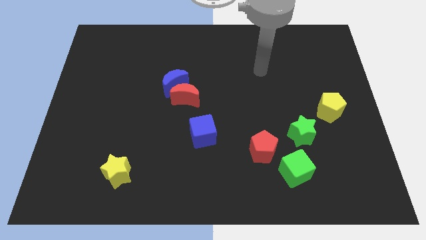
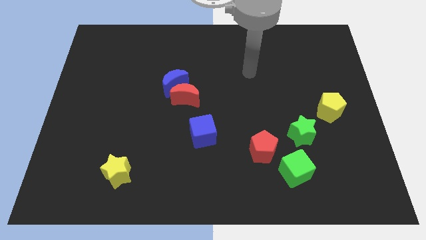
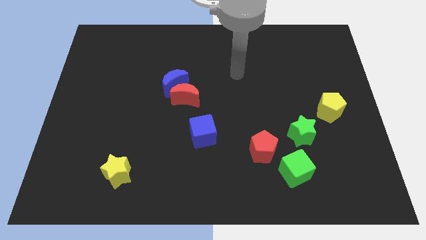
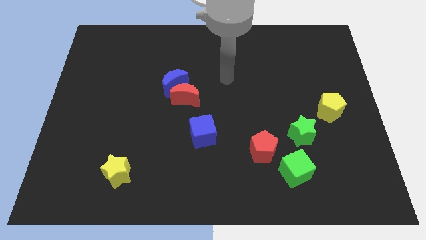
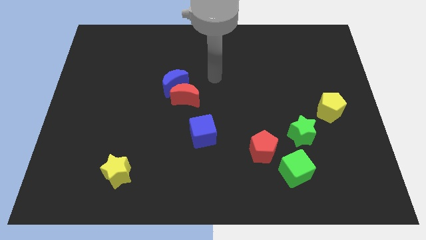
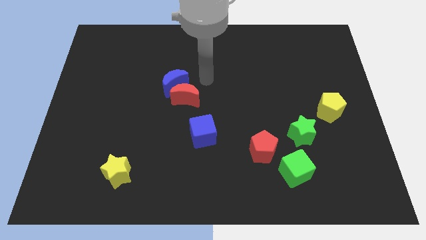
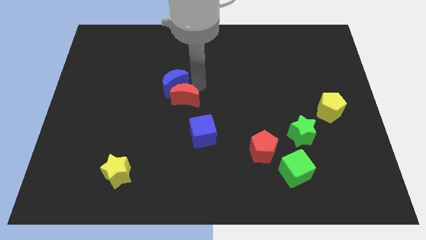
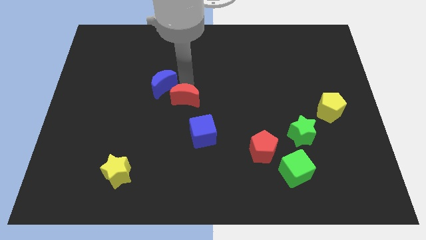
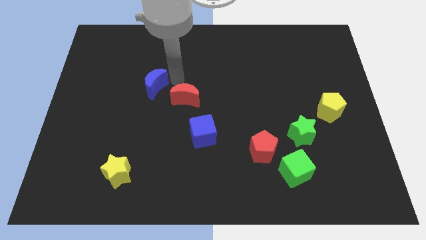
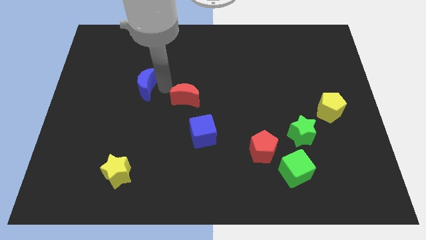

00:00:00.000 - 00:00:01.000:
move the red moon away from the blue moon

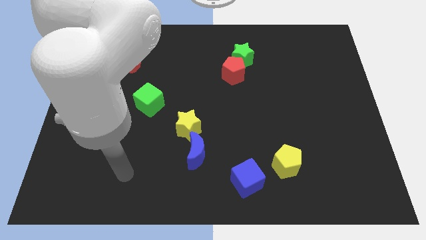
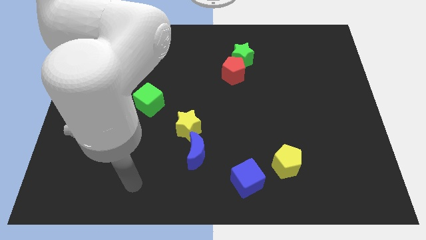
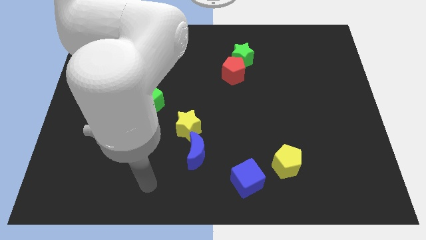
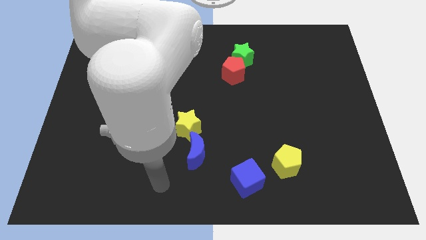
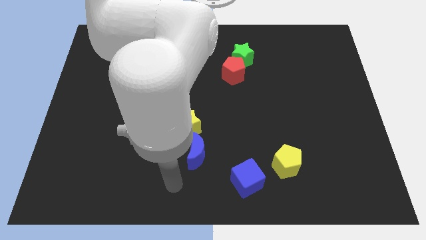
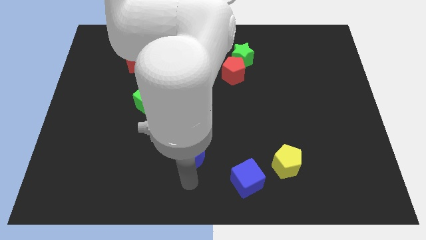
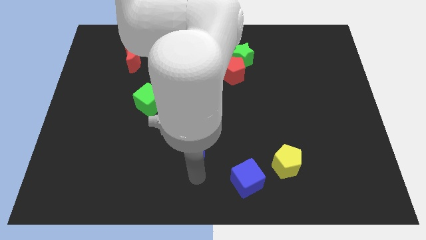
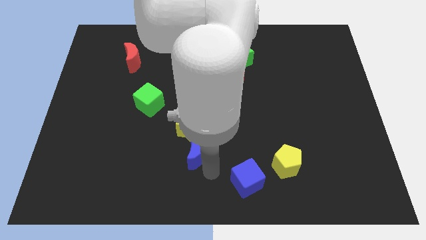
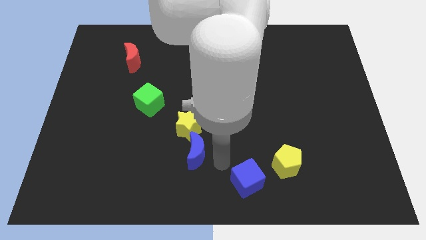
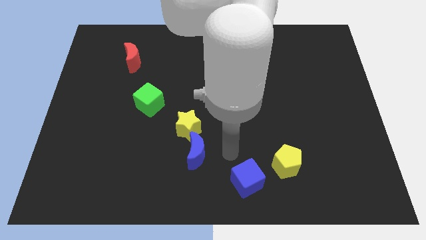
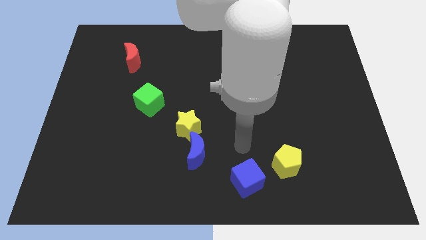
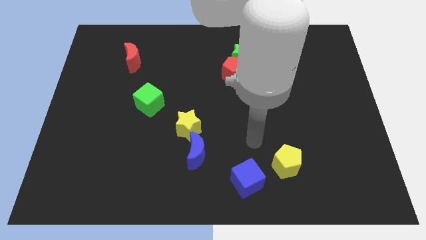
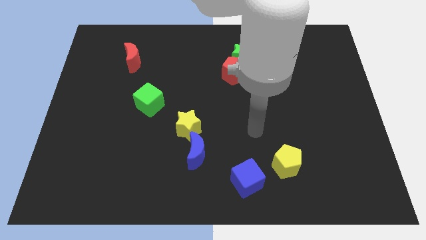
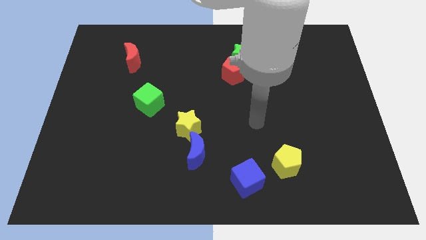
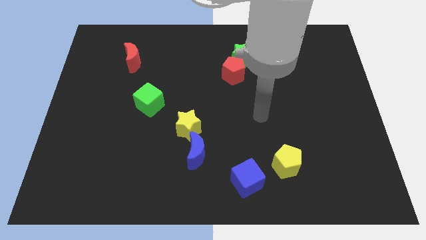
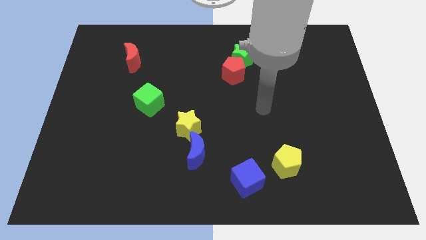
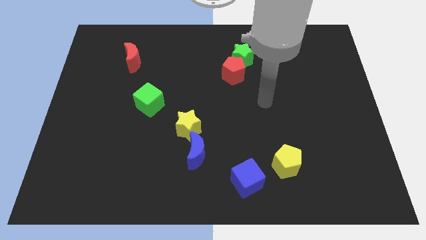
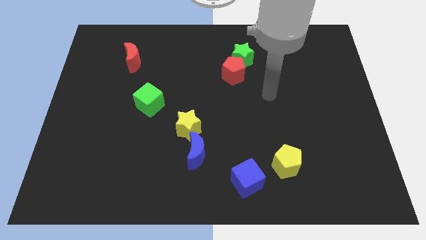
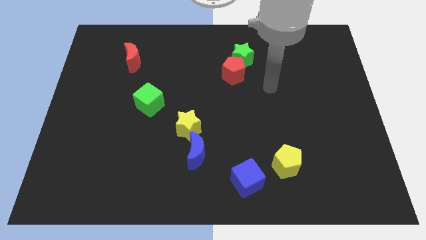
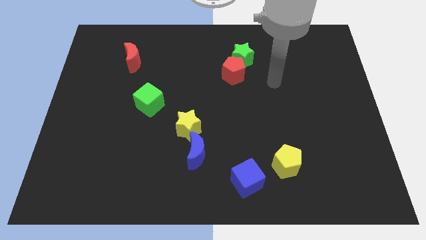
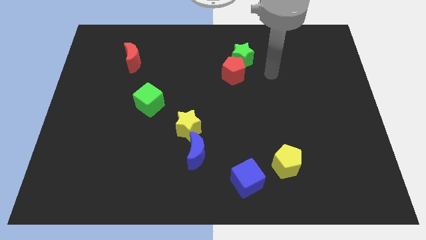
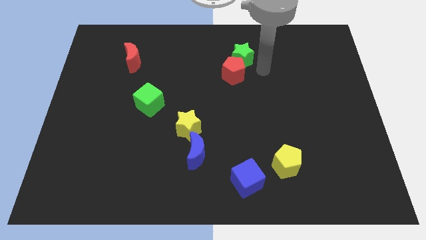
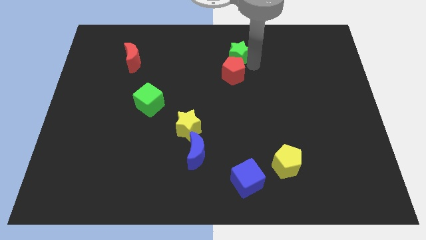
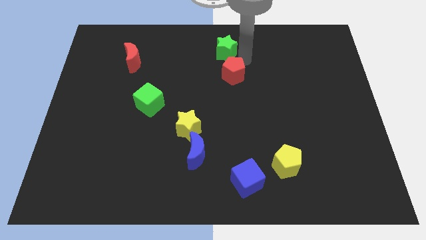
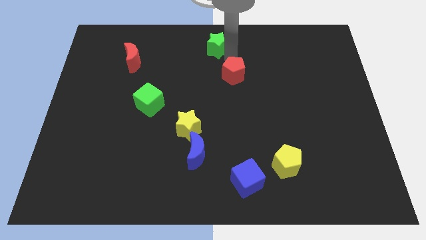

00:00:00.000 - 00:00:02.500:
separate the red pentagon from the green star

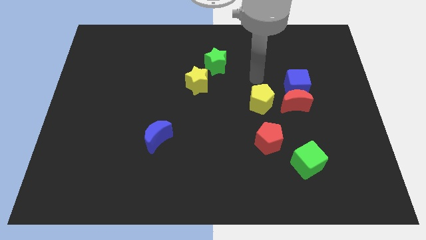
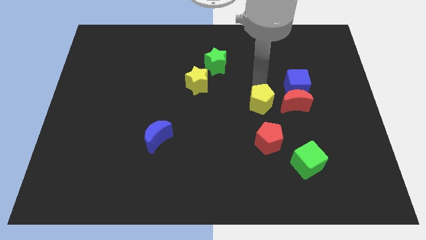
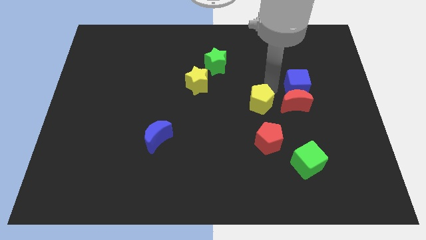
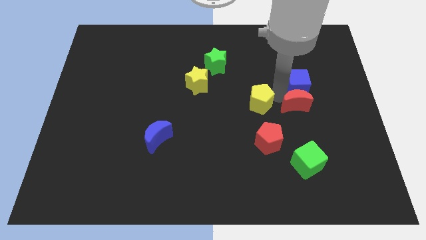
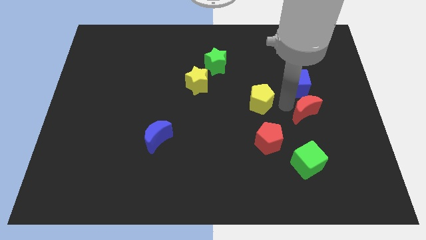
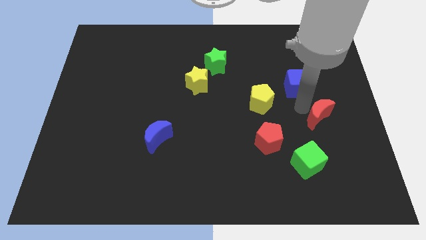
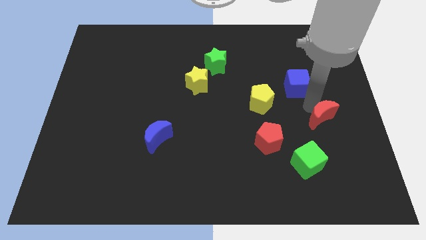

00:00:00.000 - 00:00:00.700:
move the blue cube away from the red moon

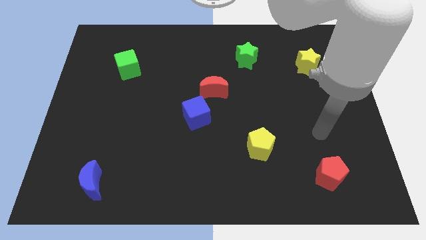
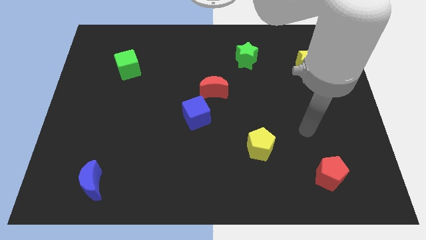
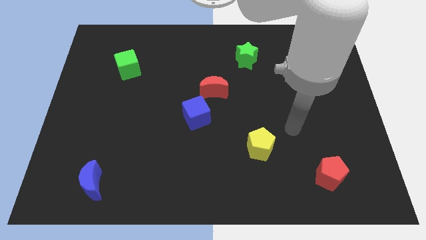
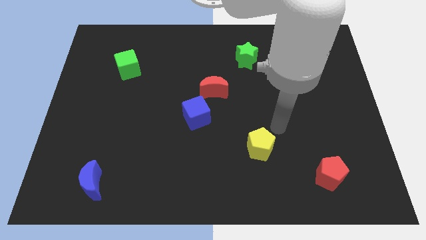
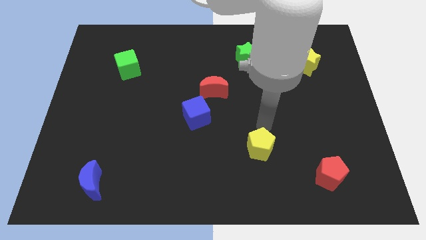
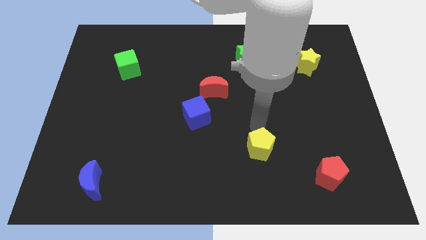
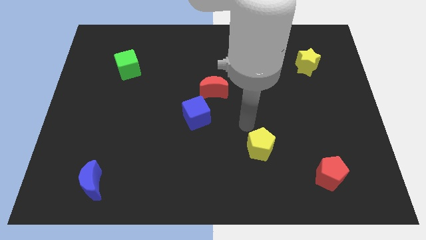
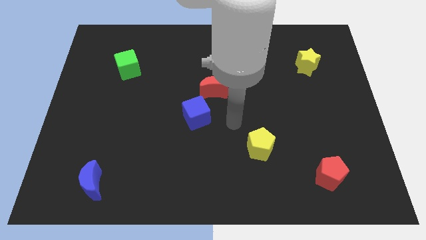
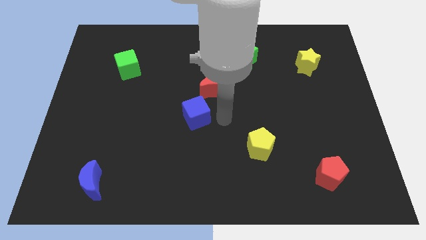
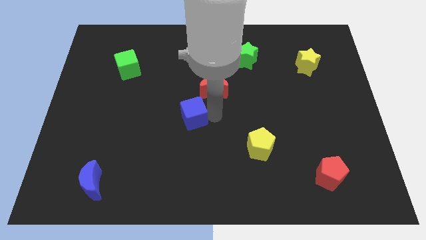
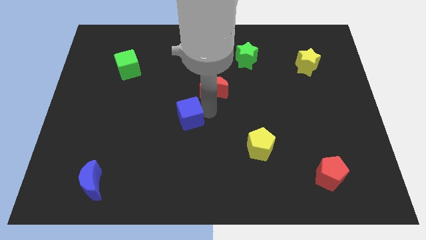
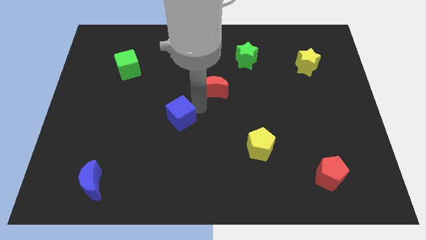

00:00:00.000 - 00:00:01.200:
pull the red moon apart from the blue cube

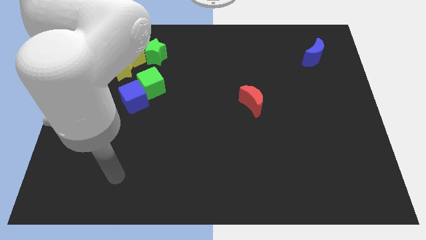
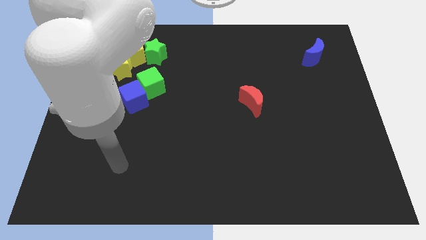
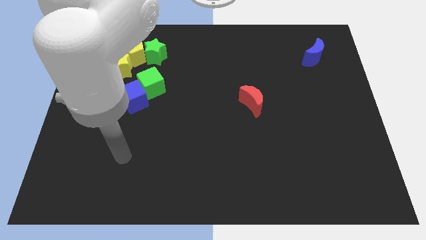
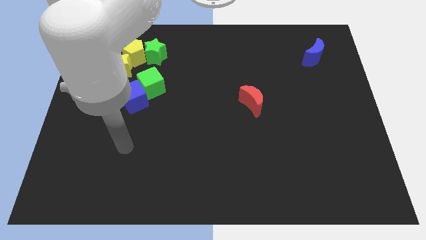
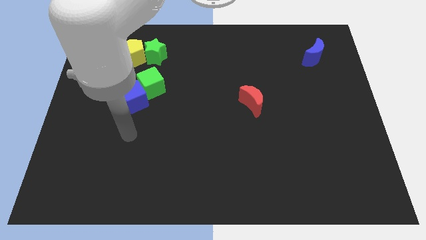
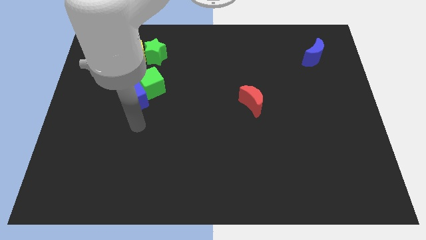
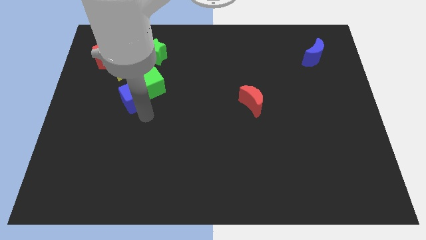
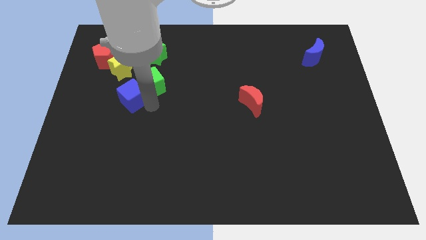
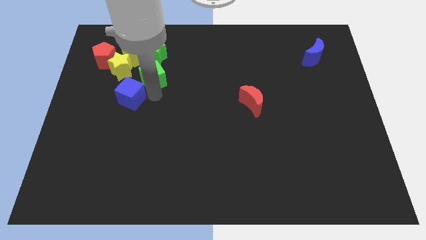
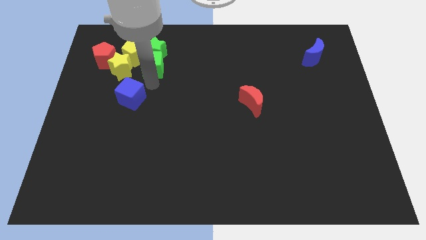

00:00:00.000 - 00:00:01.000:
move the blue cube away from the green cube

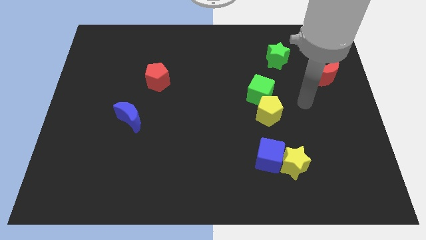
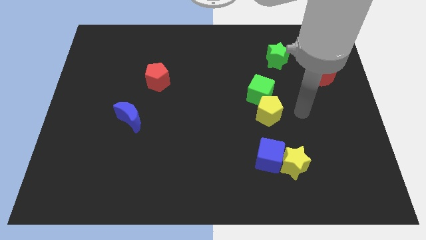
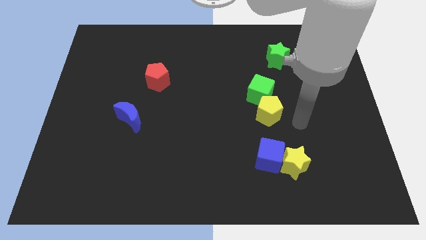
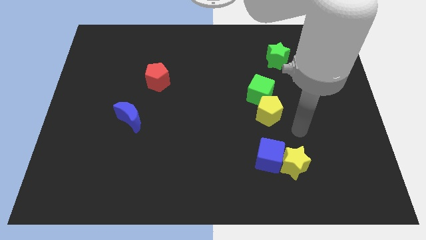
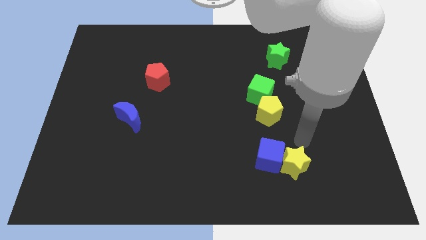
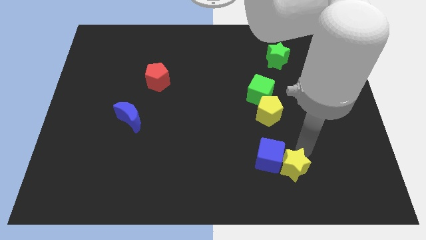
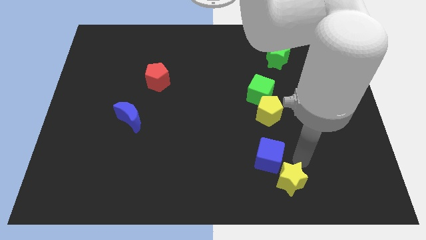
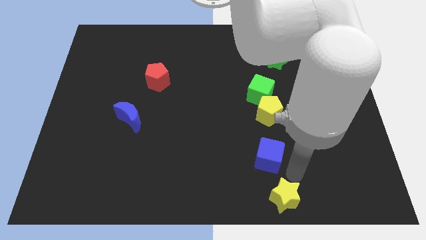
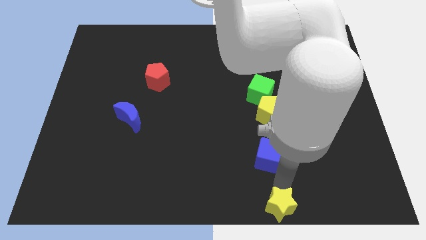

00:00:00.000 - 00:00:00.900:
move the blue cube away from the yellow star

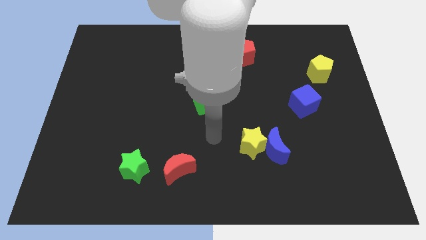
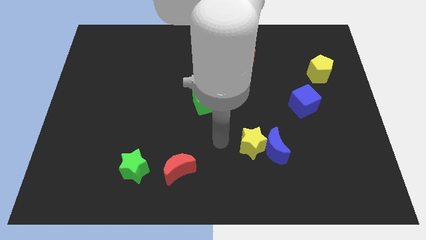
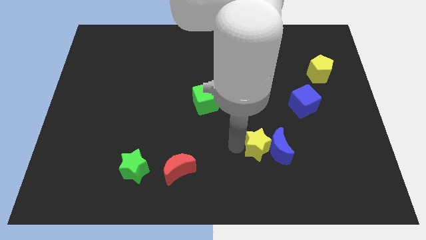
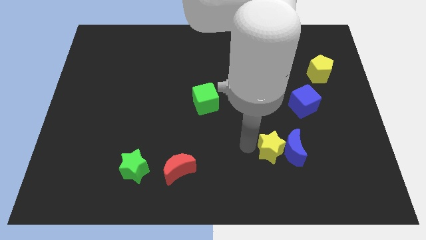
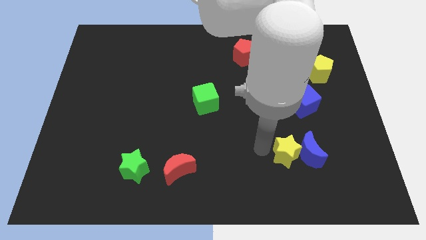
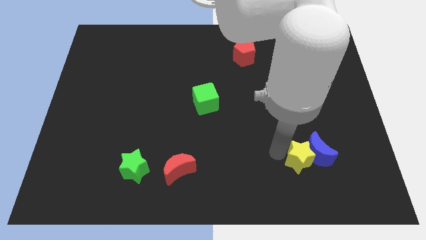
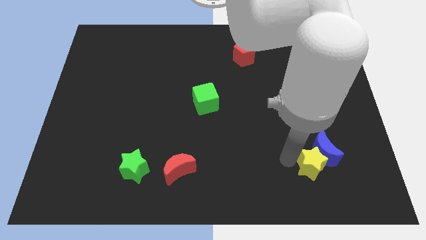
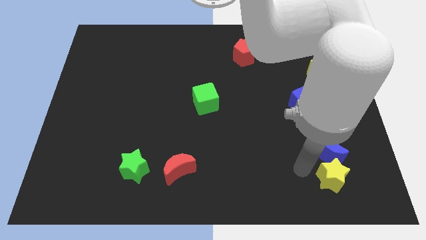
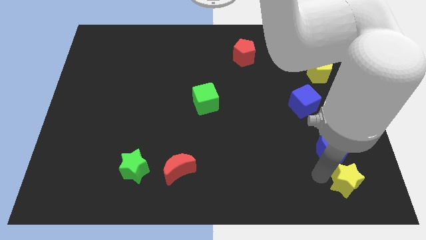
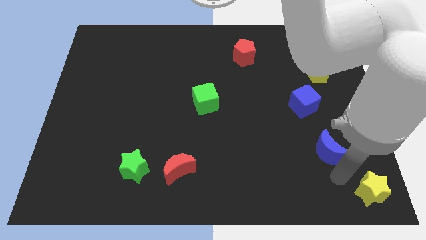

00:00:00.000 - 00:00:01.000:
pull the blue moon apart from the yellow star

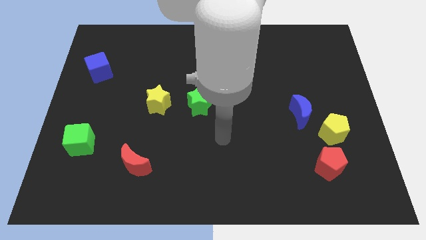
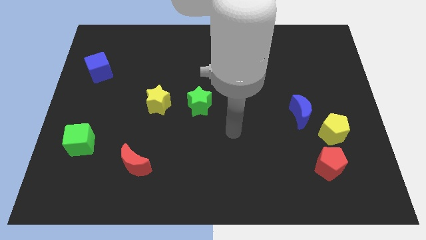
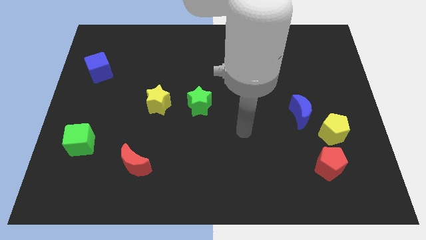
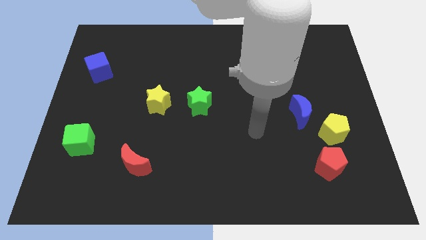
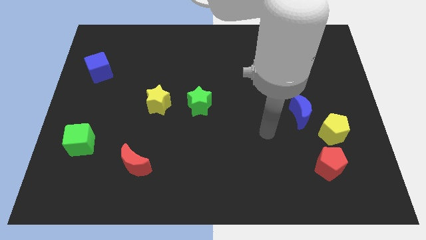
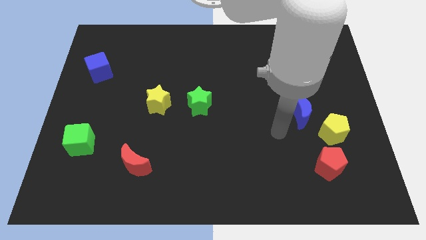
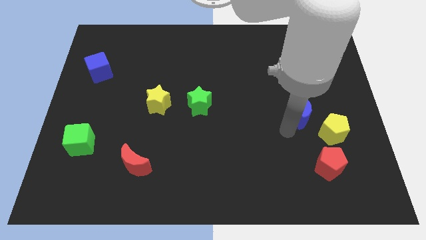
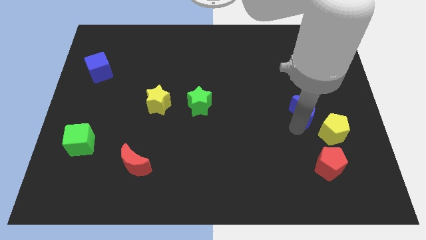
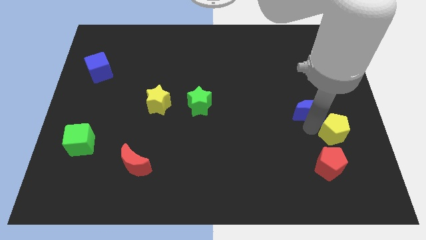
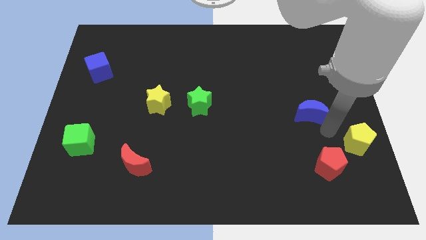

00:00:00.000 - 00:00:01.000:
separate the blue moon from the yellow pentagon

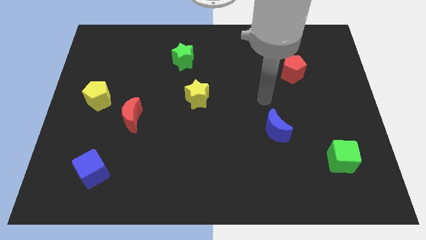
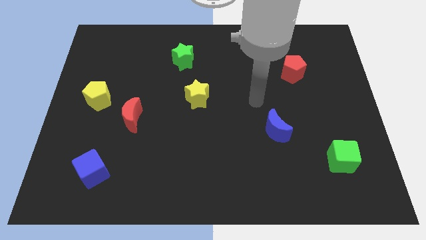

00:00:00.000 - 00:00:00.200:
pull the red moon apart from the yellow pentagon
